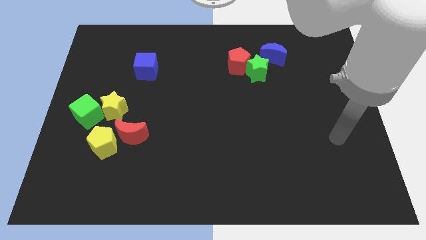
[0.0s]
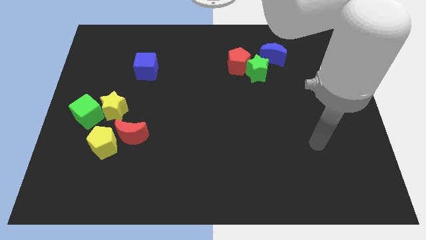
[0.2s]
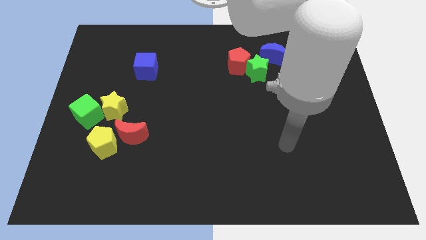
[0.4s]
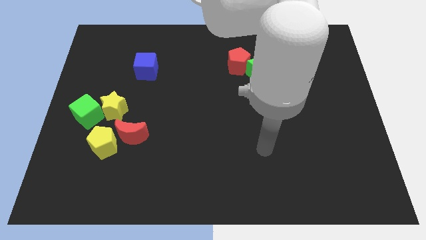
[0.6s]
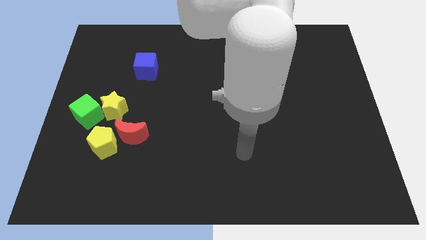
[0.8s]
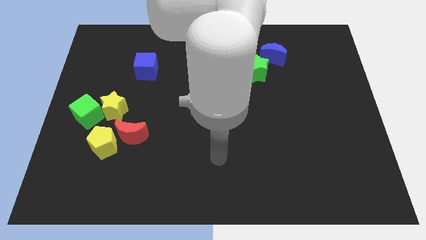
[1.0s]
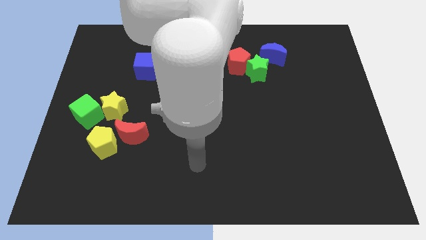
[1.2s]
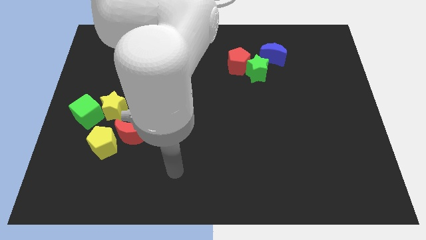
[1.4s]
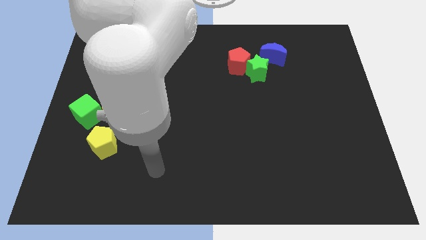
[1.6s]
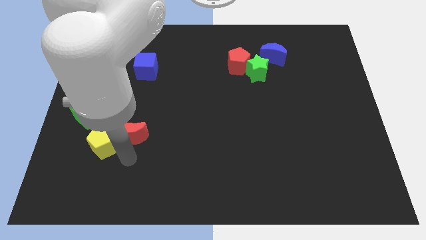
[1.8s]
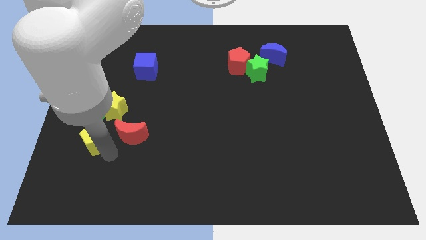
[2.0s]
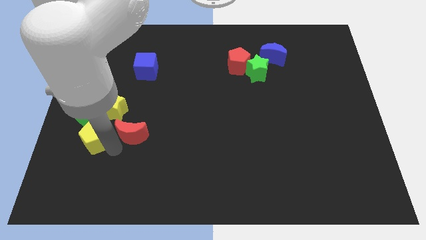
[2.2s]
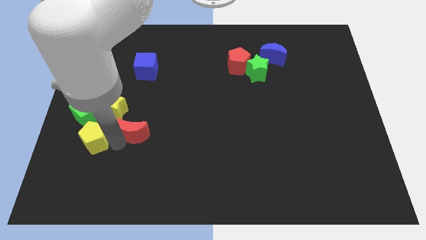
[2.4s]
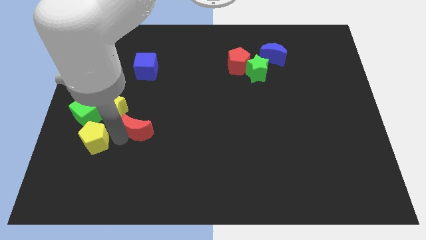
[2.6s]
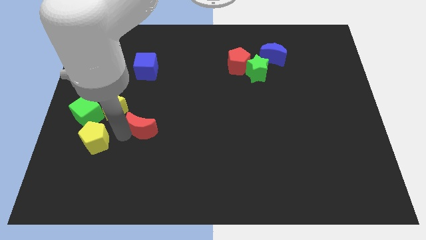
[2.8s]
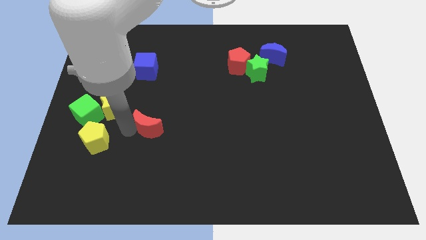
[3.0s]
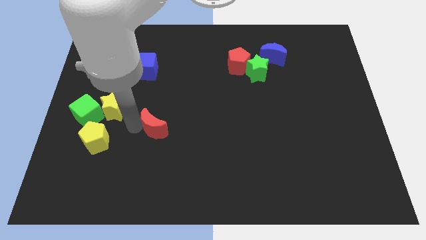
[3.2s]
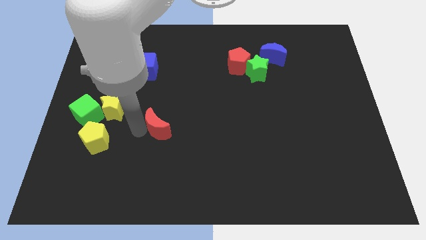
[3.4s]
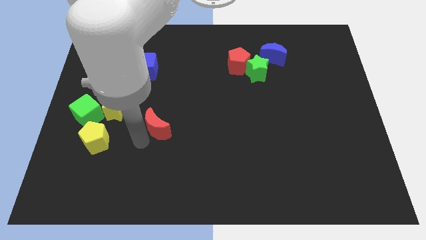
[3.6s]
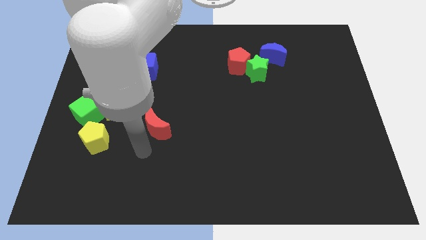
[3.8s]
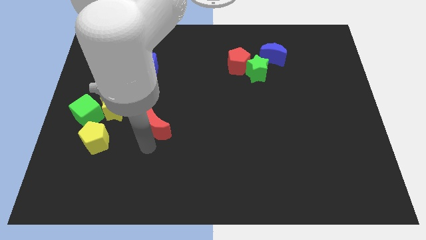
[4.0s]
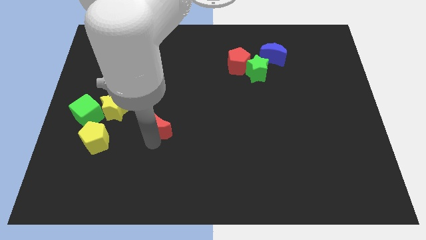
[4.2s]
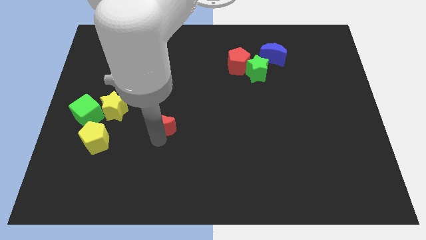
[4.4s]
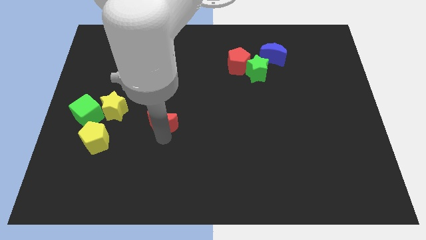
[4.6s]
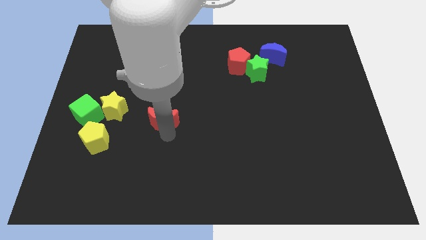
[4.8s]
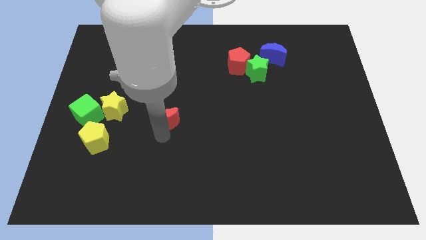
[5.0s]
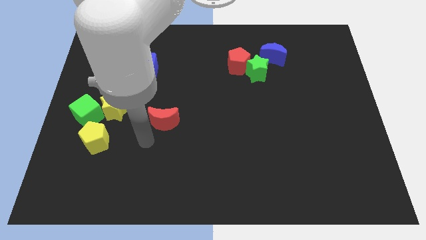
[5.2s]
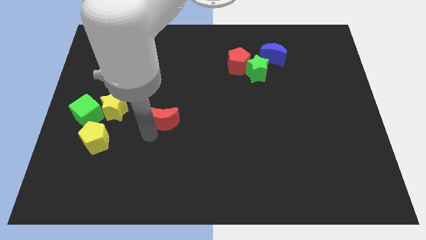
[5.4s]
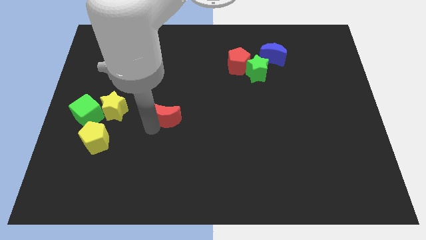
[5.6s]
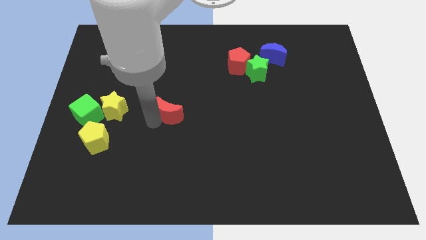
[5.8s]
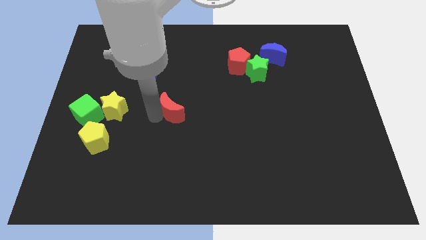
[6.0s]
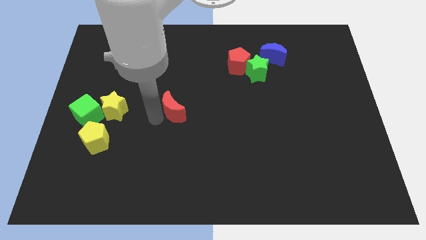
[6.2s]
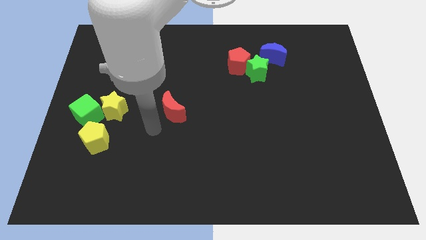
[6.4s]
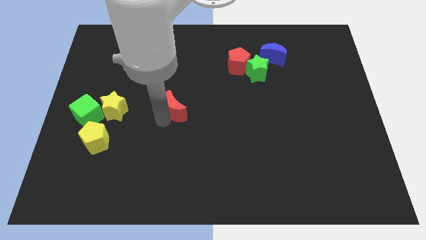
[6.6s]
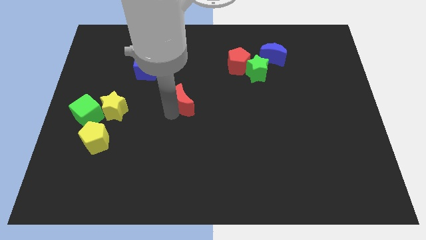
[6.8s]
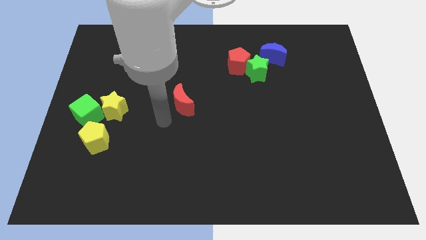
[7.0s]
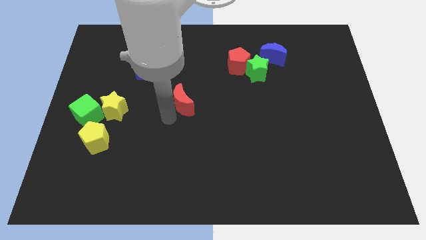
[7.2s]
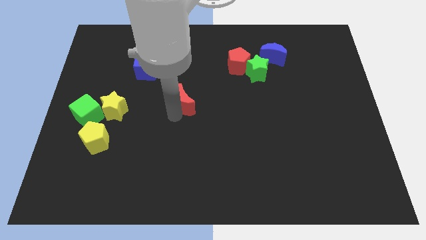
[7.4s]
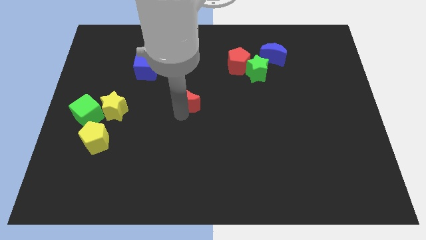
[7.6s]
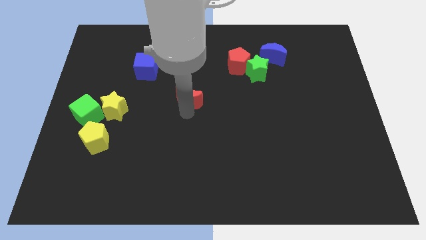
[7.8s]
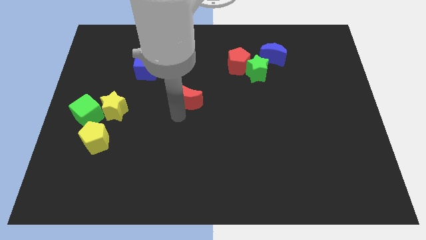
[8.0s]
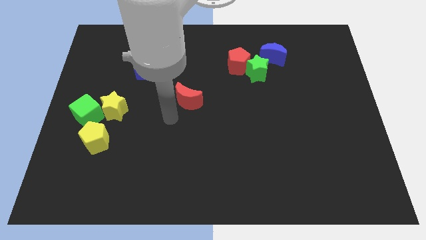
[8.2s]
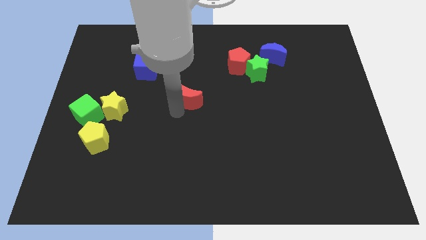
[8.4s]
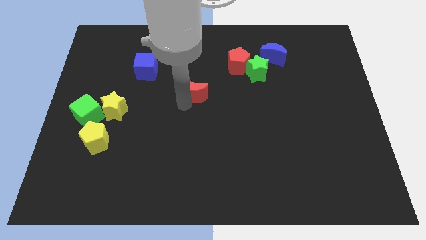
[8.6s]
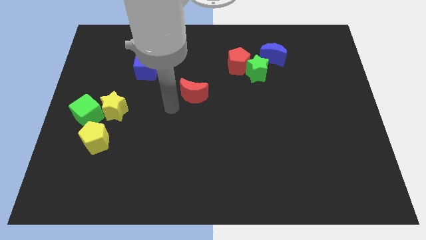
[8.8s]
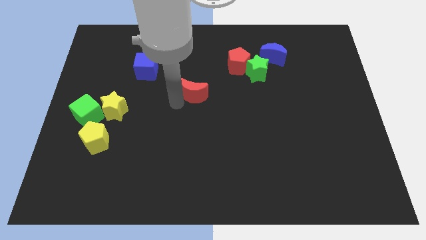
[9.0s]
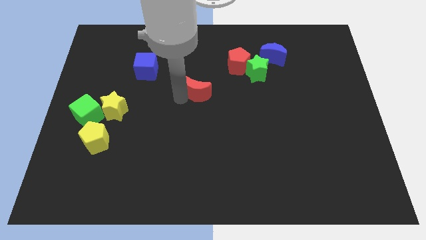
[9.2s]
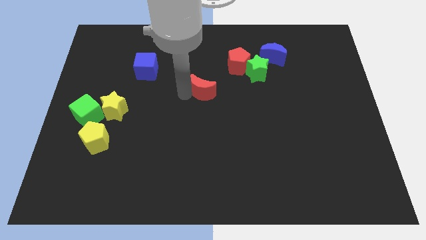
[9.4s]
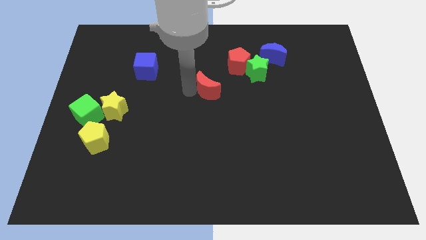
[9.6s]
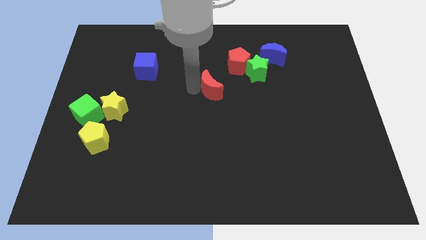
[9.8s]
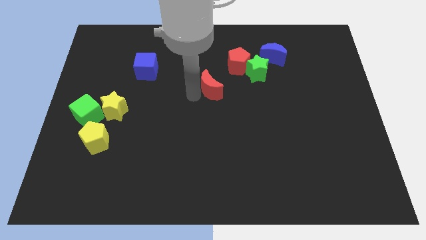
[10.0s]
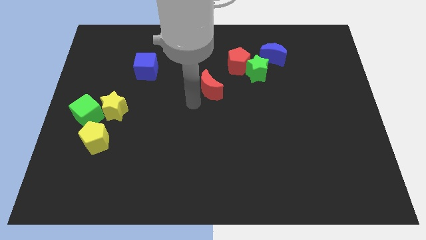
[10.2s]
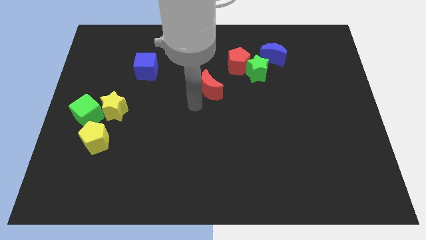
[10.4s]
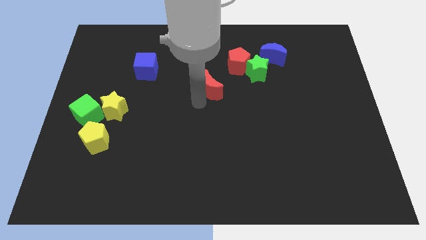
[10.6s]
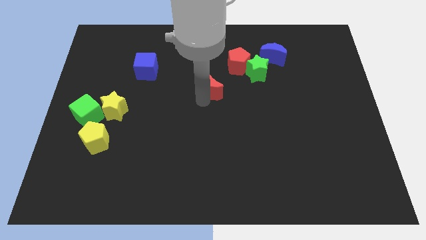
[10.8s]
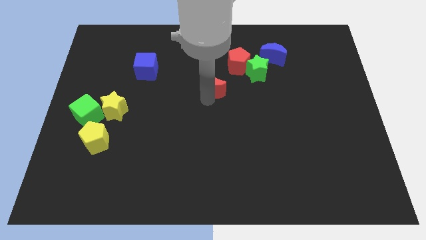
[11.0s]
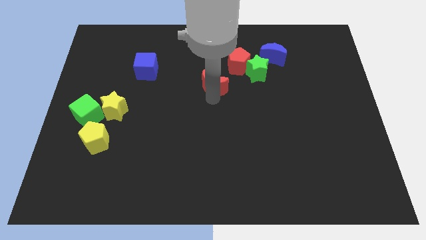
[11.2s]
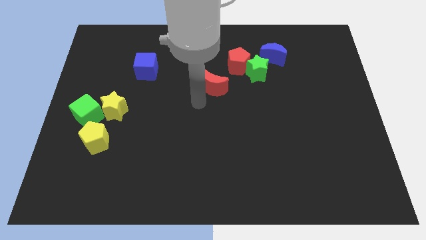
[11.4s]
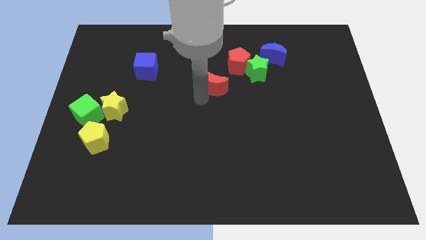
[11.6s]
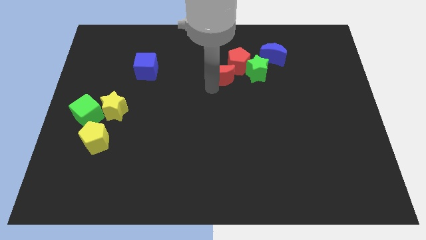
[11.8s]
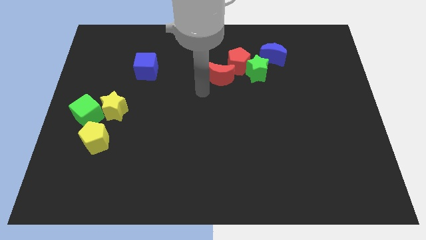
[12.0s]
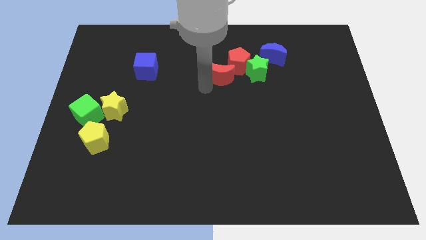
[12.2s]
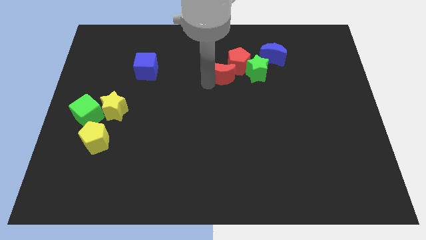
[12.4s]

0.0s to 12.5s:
slide the red moon towards the red pentagon

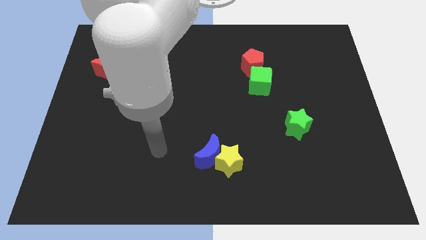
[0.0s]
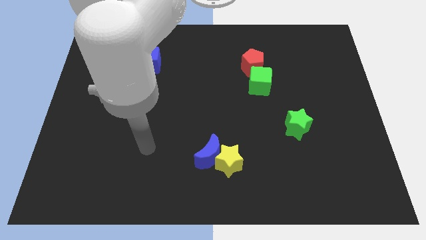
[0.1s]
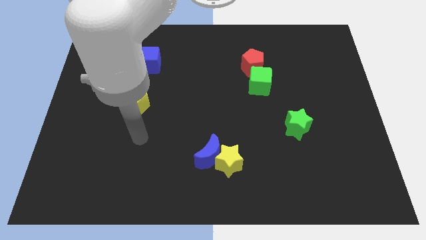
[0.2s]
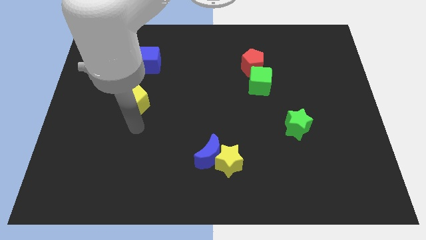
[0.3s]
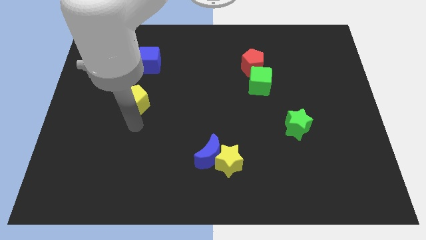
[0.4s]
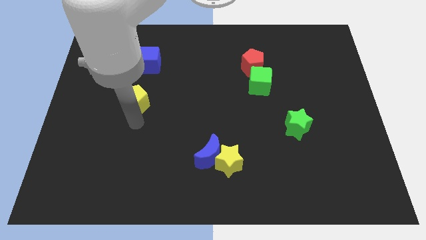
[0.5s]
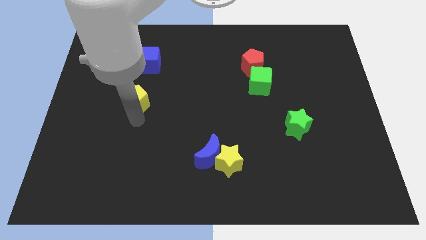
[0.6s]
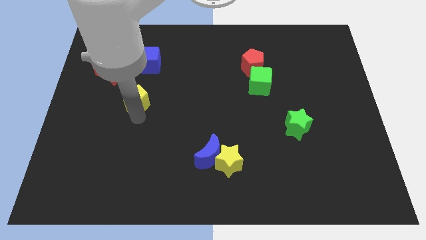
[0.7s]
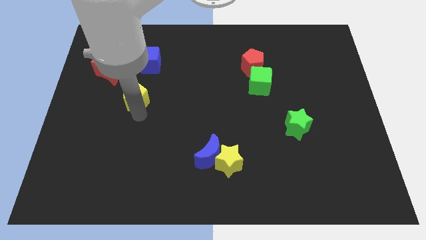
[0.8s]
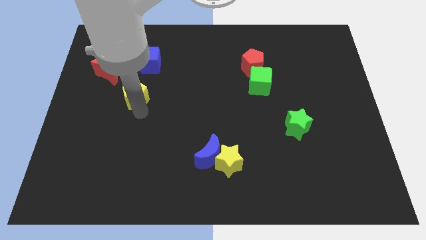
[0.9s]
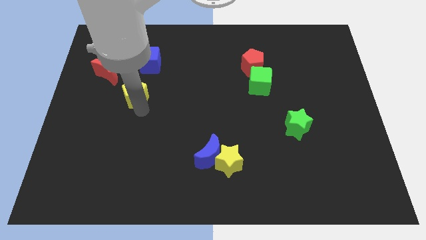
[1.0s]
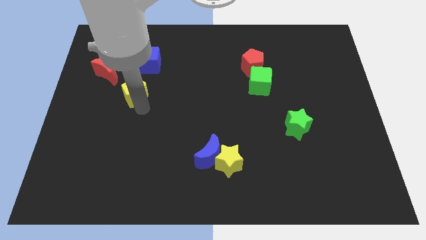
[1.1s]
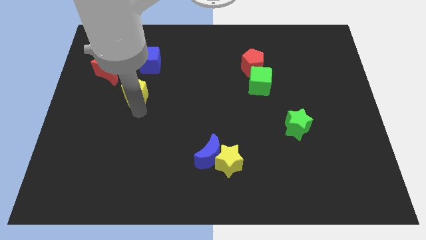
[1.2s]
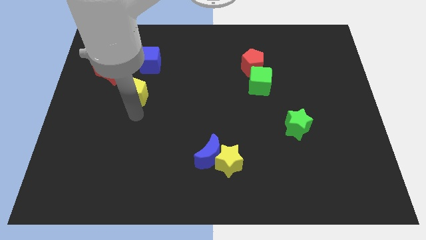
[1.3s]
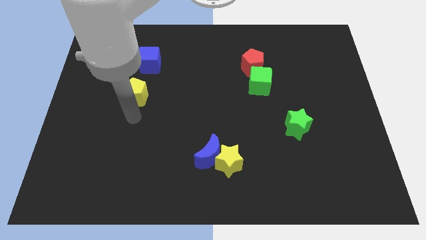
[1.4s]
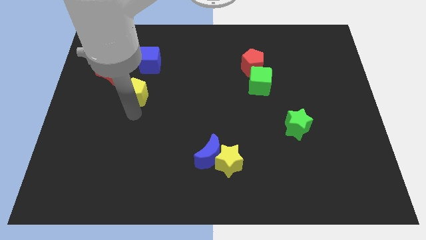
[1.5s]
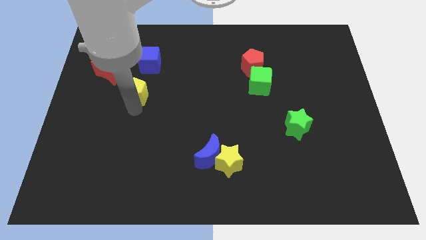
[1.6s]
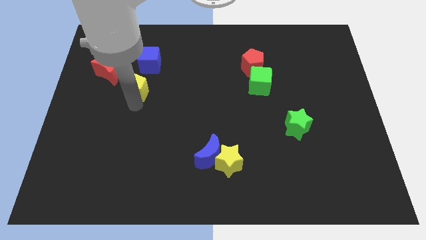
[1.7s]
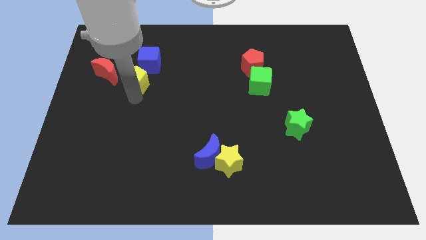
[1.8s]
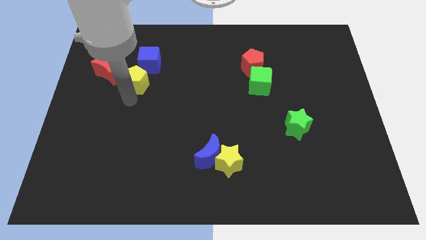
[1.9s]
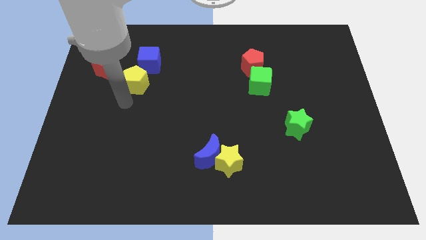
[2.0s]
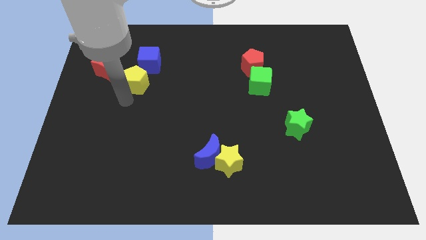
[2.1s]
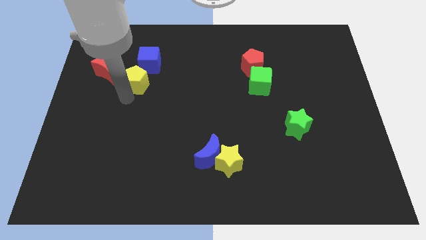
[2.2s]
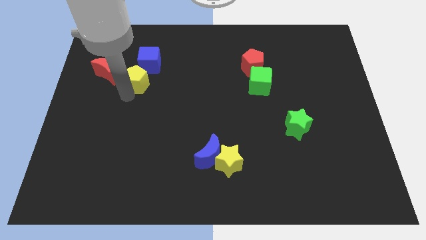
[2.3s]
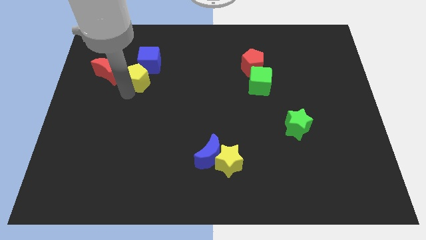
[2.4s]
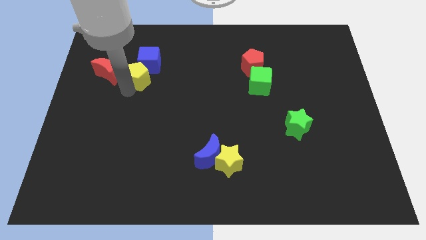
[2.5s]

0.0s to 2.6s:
put the yellow pentagon to the blue cube
